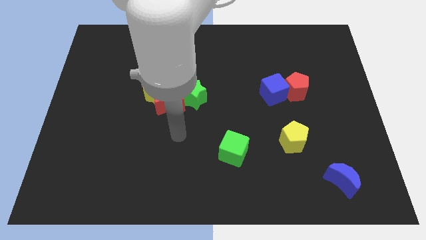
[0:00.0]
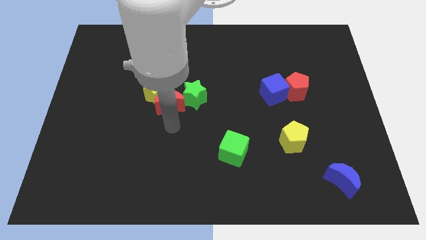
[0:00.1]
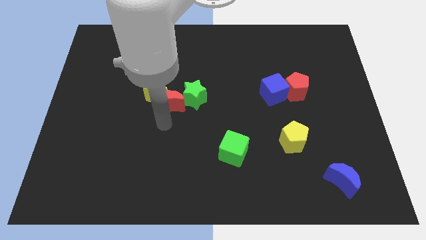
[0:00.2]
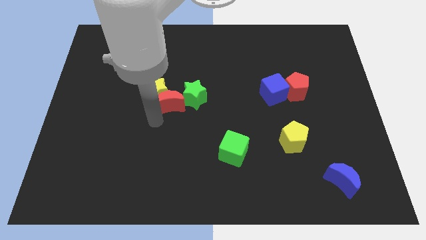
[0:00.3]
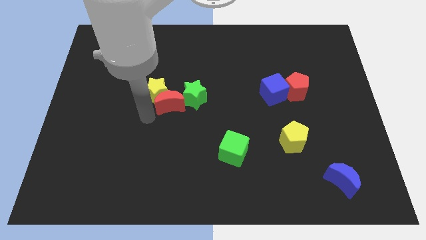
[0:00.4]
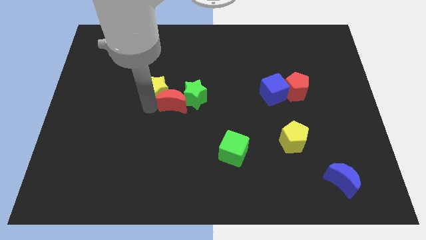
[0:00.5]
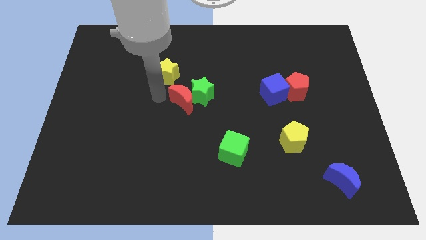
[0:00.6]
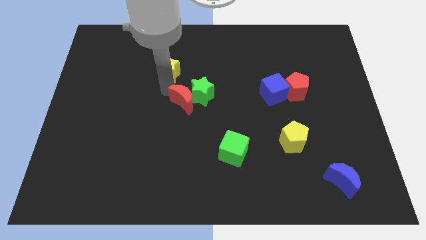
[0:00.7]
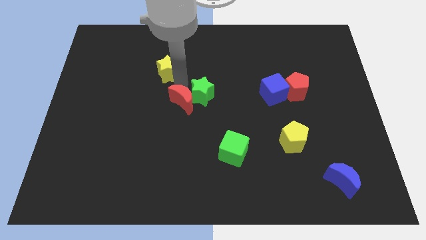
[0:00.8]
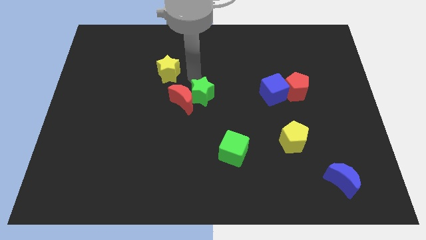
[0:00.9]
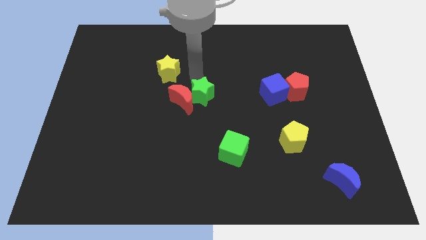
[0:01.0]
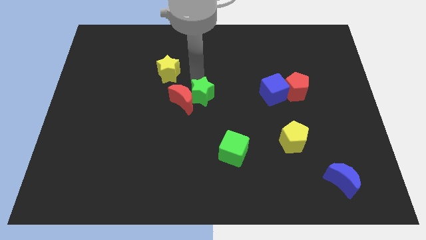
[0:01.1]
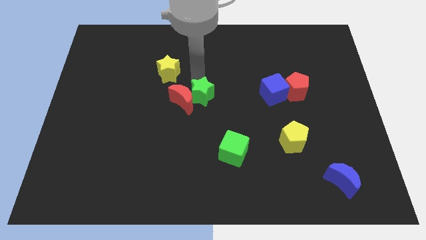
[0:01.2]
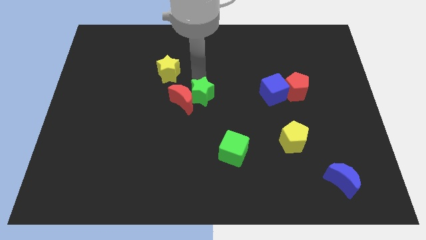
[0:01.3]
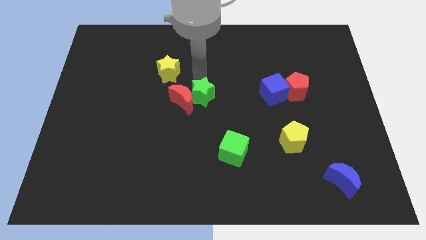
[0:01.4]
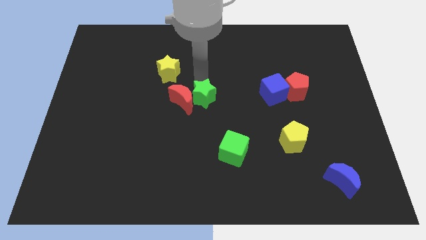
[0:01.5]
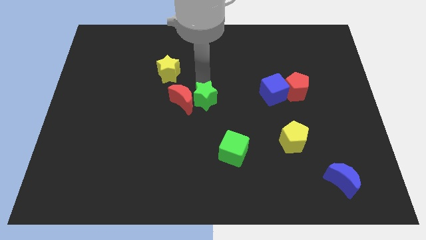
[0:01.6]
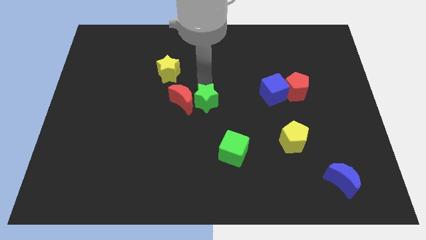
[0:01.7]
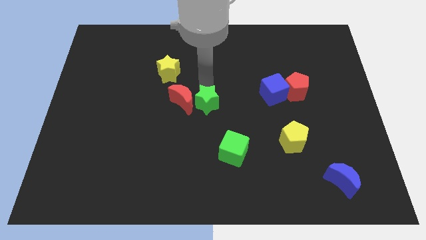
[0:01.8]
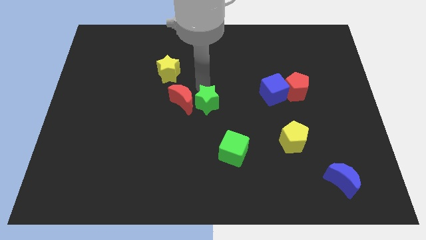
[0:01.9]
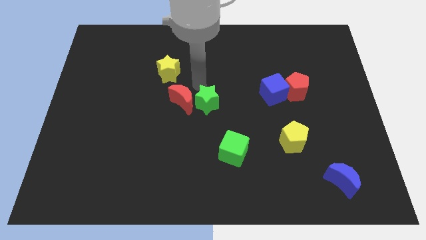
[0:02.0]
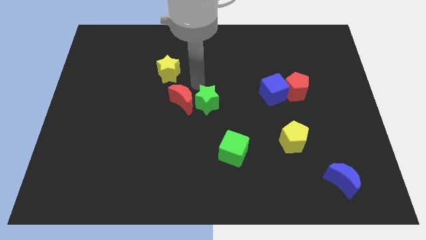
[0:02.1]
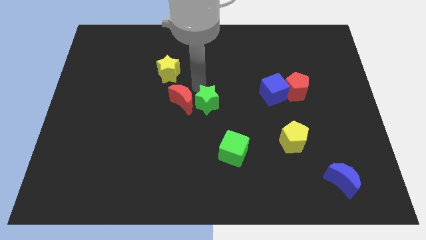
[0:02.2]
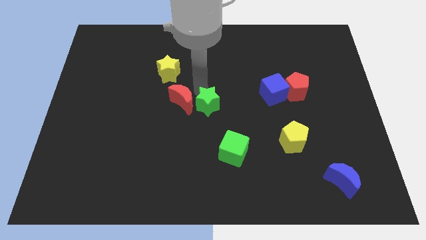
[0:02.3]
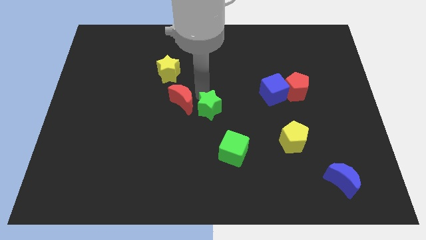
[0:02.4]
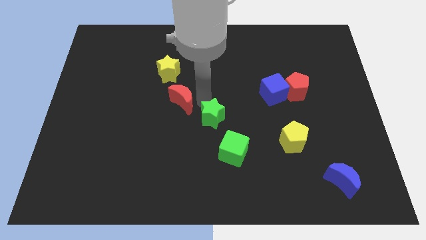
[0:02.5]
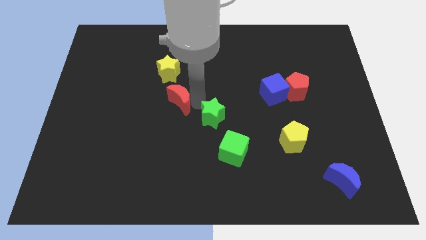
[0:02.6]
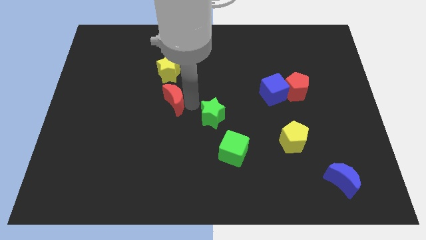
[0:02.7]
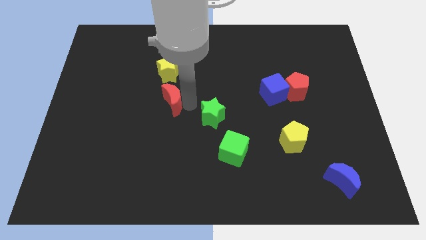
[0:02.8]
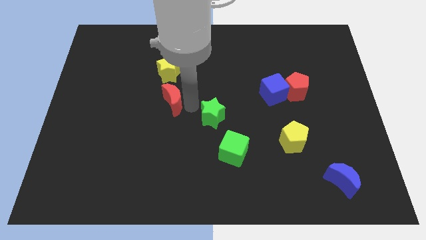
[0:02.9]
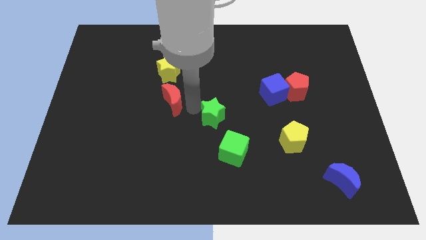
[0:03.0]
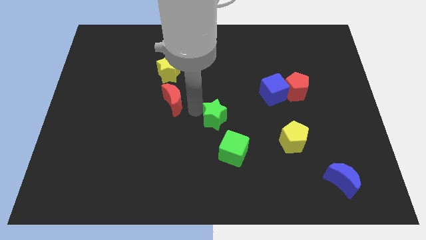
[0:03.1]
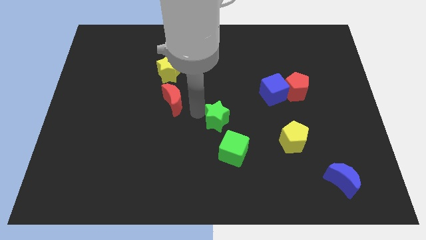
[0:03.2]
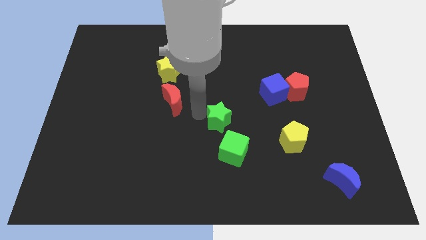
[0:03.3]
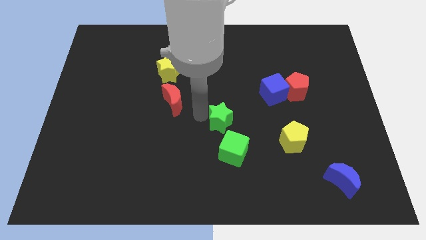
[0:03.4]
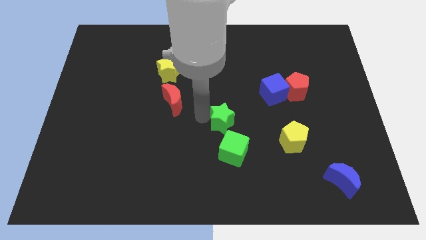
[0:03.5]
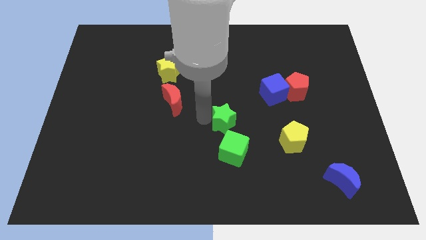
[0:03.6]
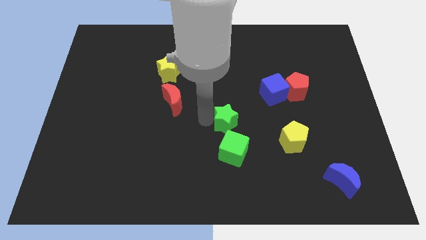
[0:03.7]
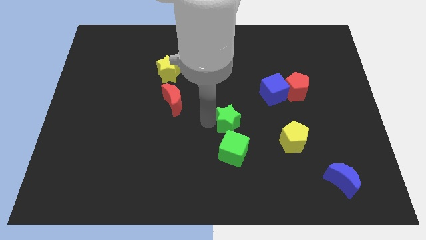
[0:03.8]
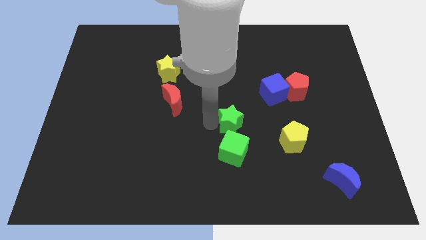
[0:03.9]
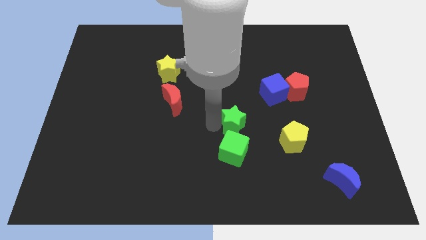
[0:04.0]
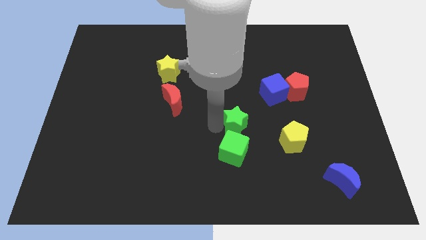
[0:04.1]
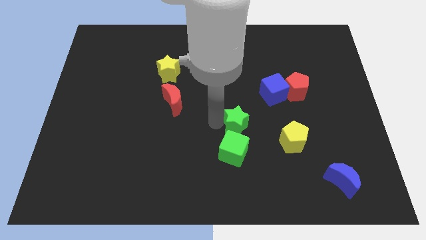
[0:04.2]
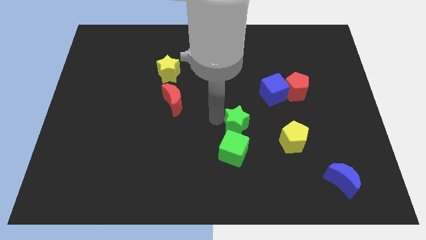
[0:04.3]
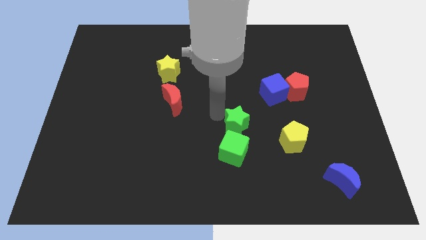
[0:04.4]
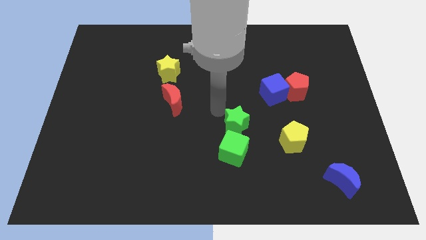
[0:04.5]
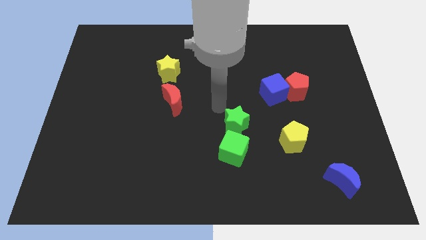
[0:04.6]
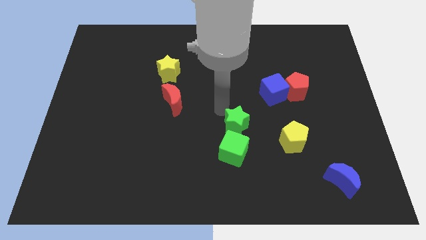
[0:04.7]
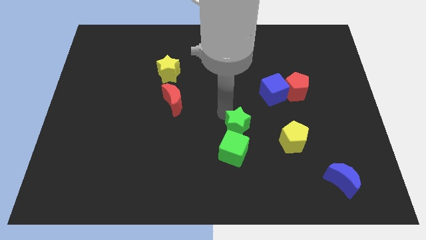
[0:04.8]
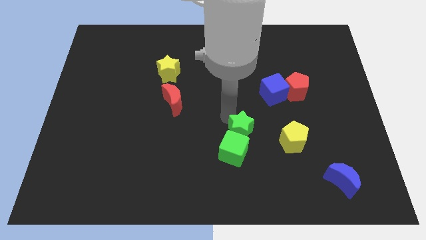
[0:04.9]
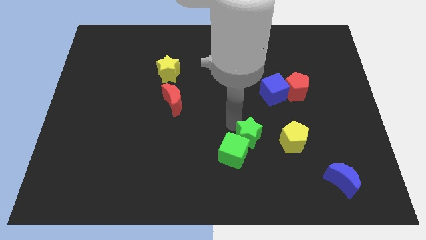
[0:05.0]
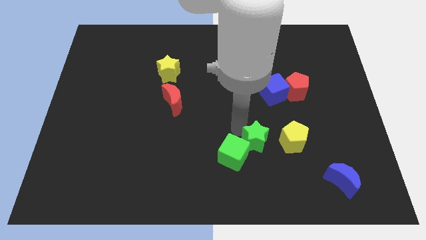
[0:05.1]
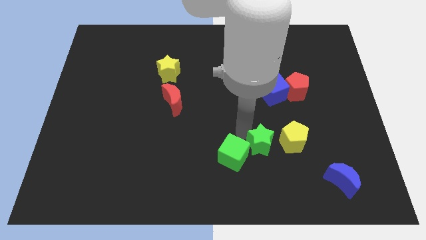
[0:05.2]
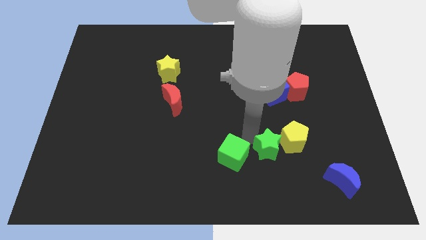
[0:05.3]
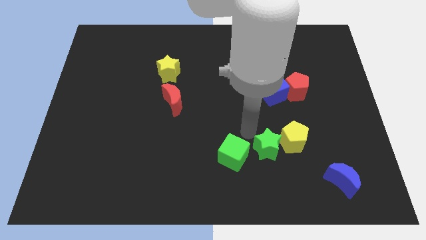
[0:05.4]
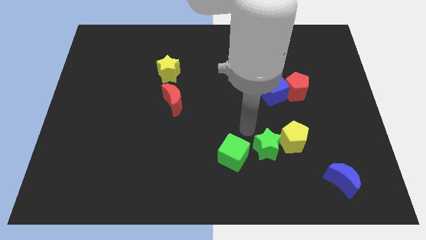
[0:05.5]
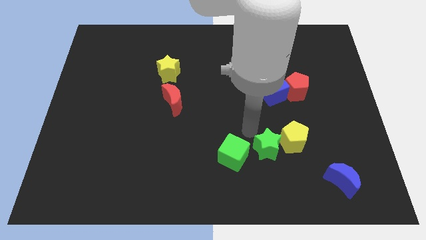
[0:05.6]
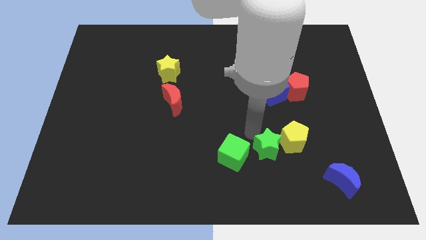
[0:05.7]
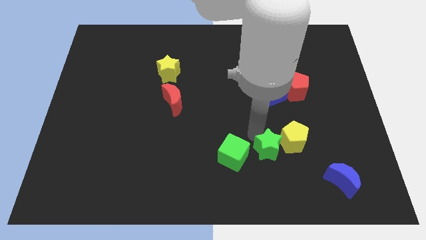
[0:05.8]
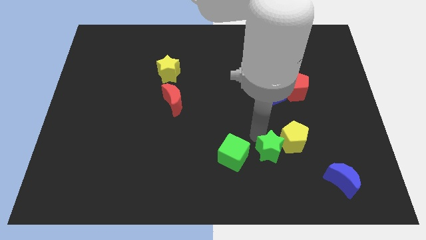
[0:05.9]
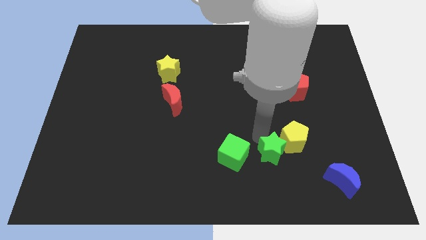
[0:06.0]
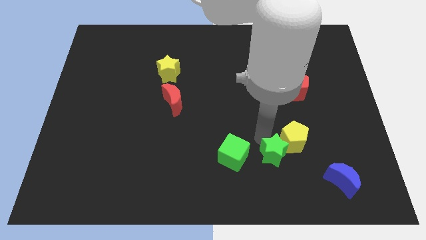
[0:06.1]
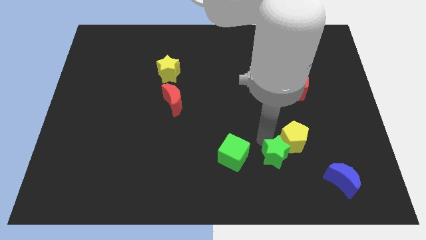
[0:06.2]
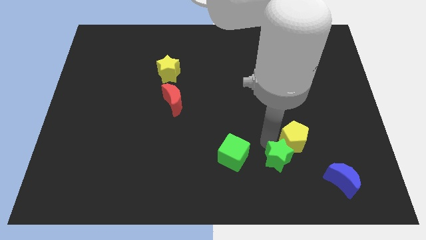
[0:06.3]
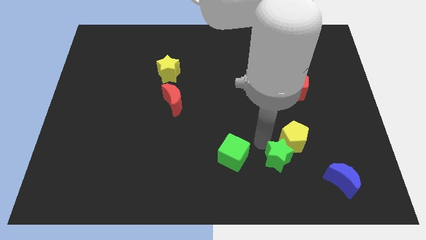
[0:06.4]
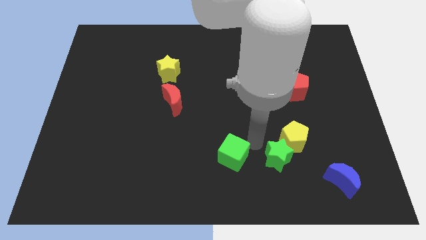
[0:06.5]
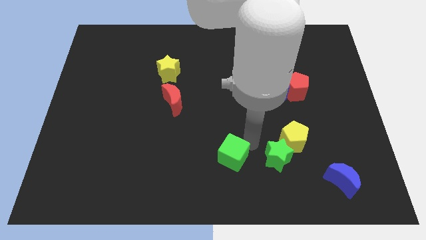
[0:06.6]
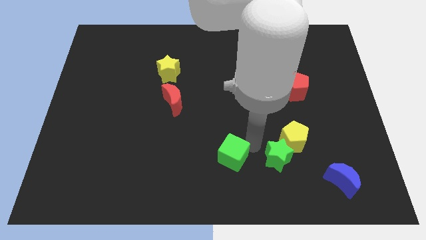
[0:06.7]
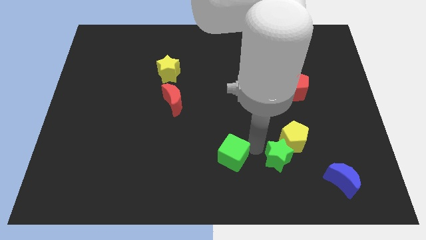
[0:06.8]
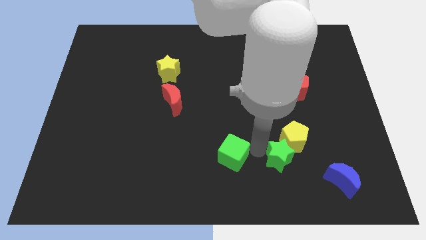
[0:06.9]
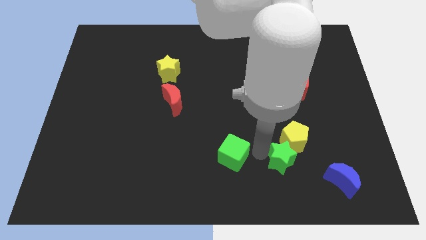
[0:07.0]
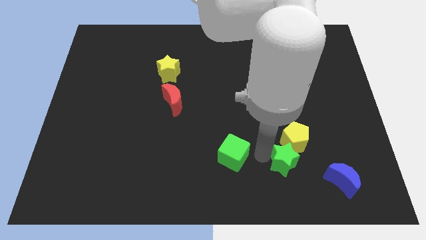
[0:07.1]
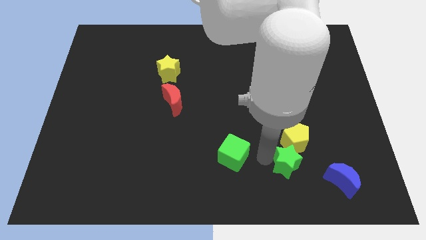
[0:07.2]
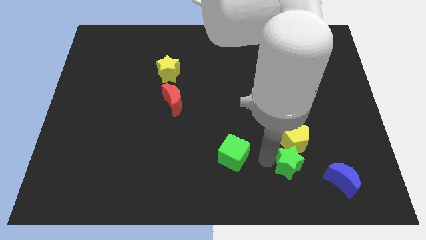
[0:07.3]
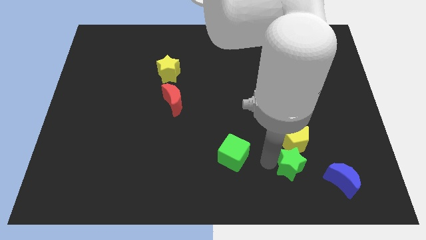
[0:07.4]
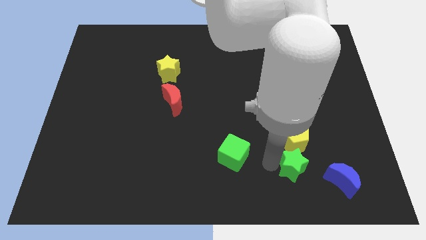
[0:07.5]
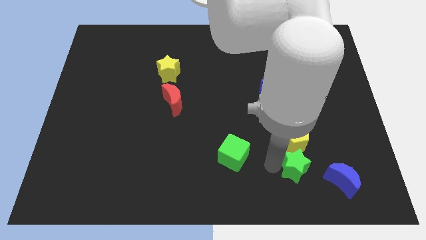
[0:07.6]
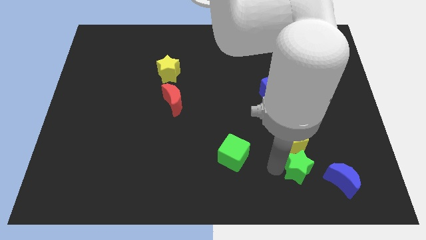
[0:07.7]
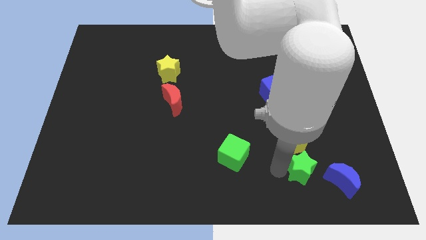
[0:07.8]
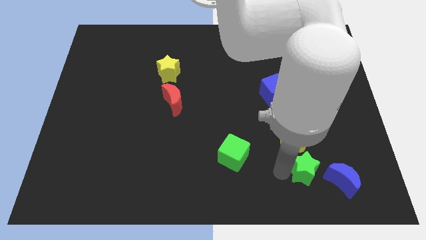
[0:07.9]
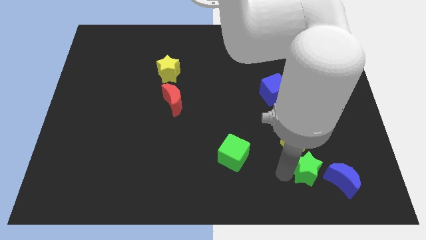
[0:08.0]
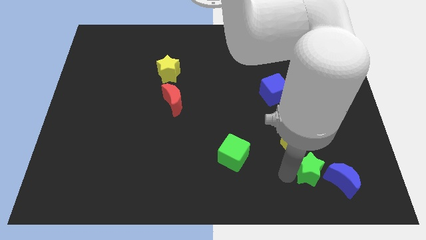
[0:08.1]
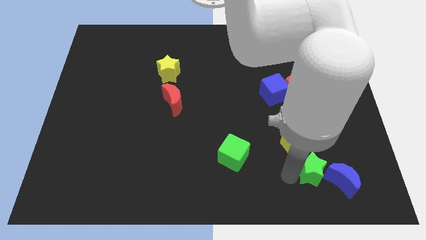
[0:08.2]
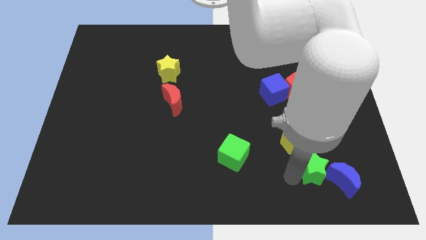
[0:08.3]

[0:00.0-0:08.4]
slide the green star towards the blue moon

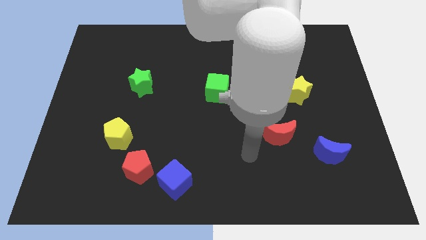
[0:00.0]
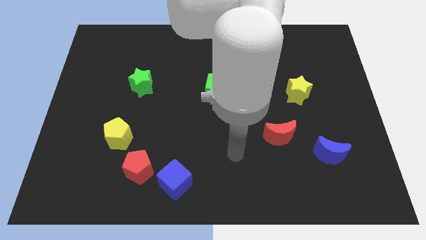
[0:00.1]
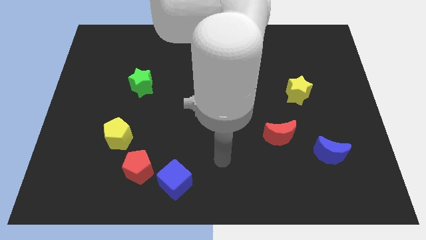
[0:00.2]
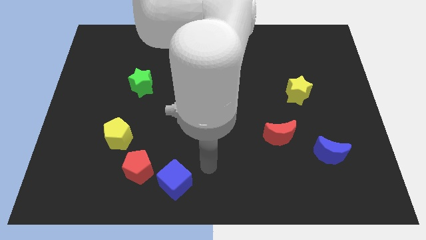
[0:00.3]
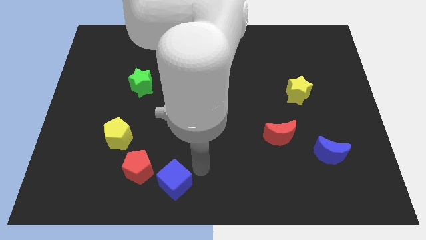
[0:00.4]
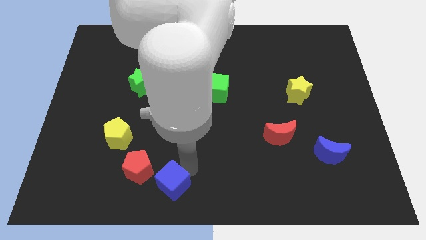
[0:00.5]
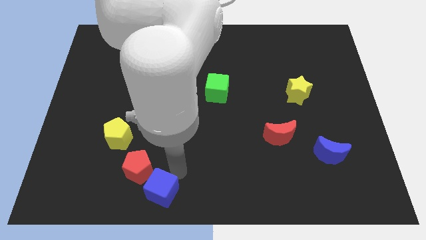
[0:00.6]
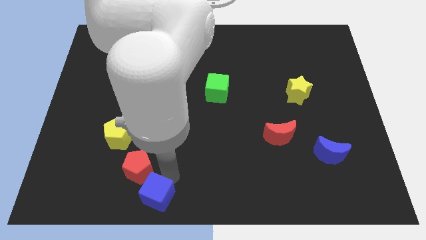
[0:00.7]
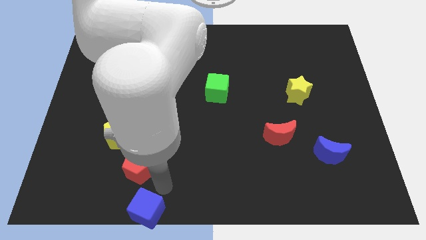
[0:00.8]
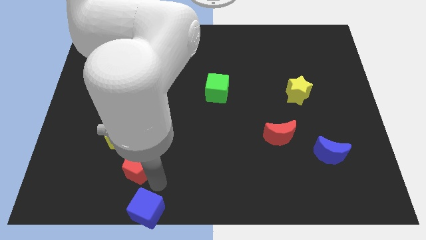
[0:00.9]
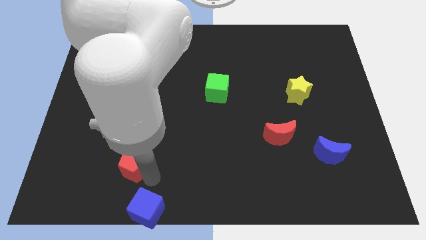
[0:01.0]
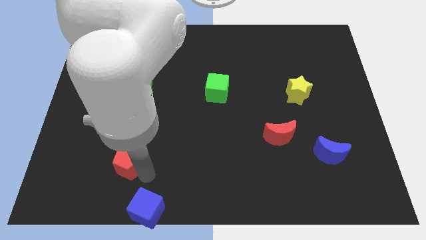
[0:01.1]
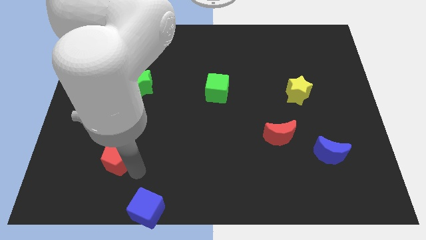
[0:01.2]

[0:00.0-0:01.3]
move the red pentagon towards the yellow pentagon
